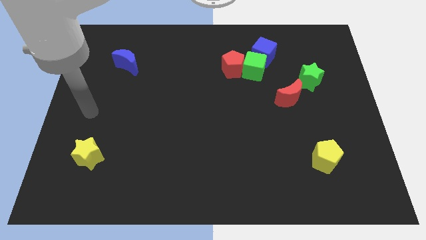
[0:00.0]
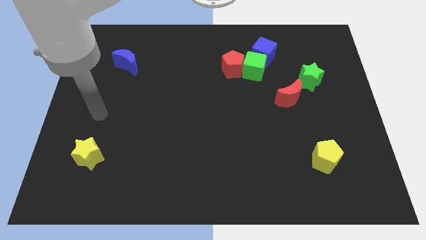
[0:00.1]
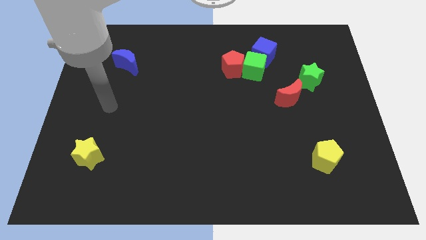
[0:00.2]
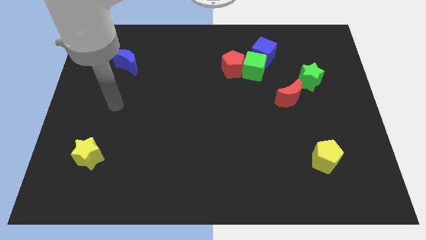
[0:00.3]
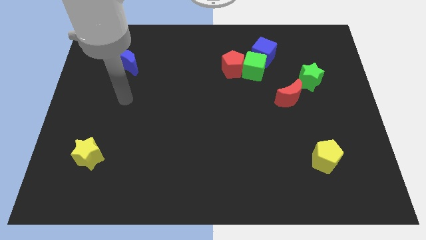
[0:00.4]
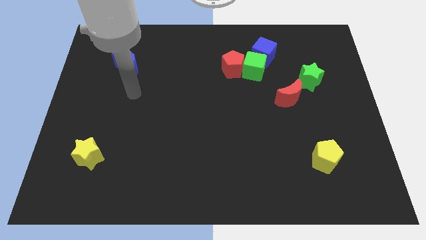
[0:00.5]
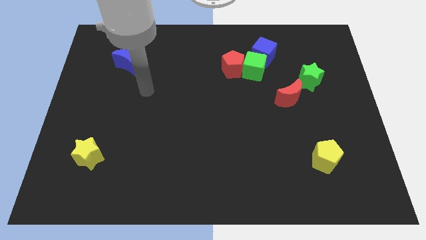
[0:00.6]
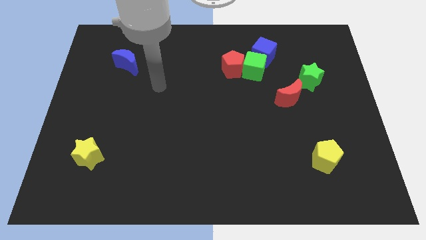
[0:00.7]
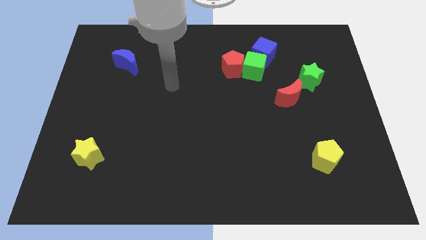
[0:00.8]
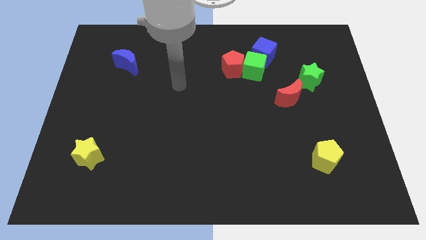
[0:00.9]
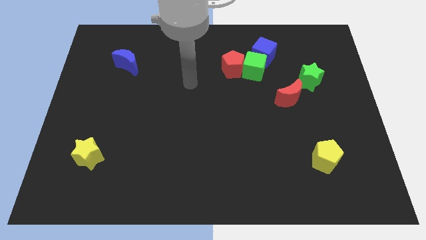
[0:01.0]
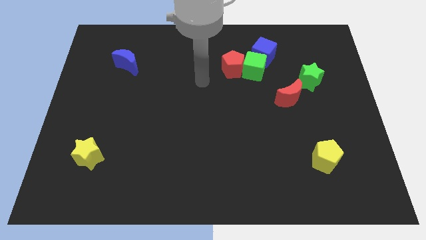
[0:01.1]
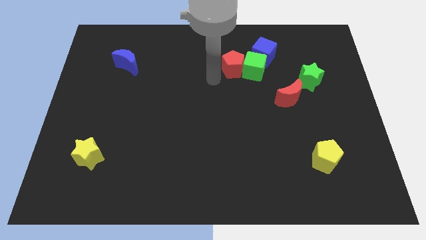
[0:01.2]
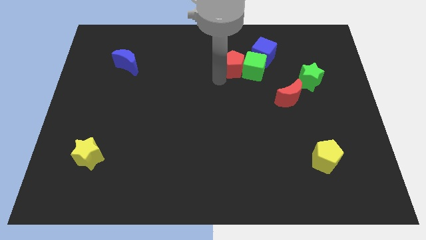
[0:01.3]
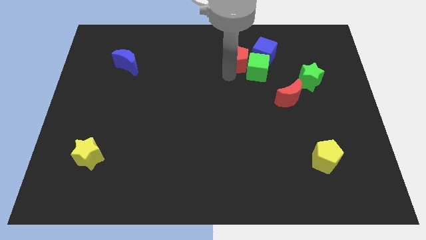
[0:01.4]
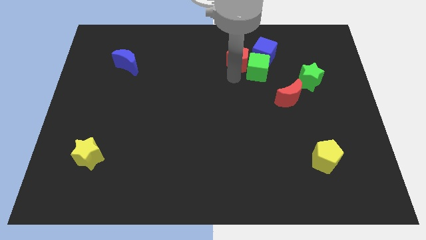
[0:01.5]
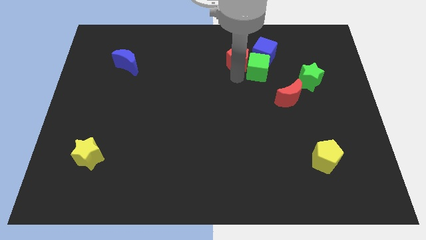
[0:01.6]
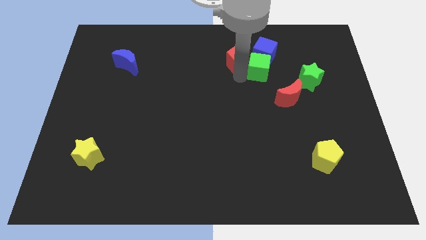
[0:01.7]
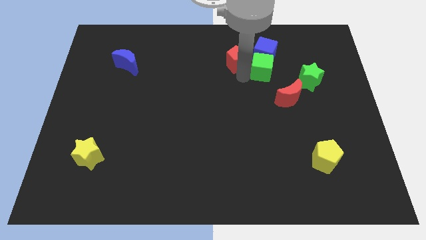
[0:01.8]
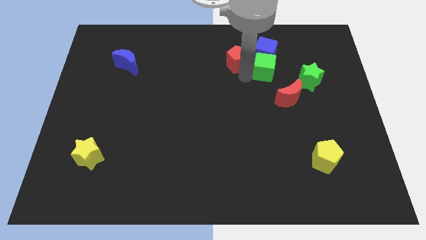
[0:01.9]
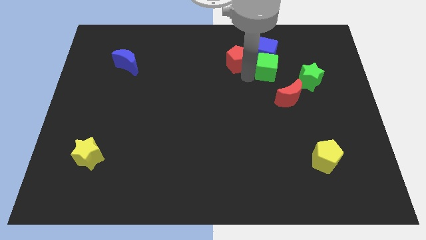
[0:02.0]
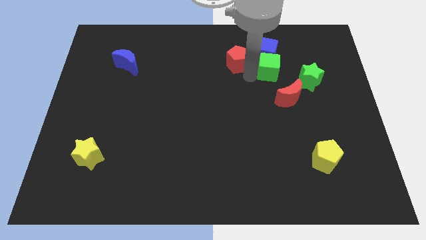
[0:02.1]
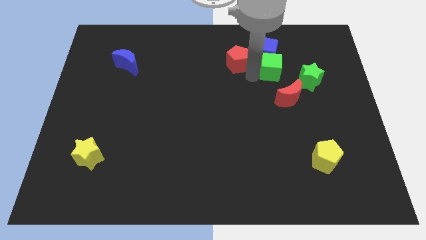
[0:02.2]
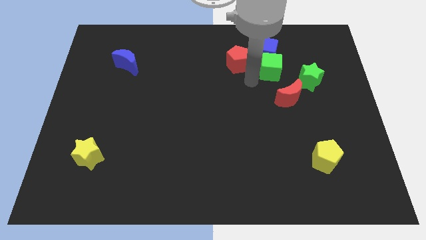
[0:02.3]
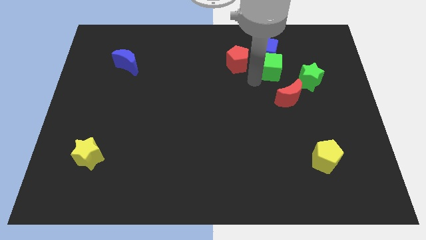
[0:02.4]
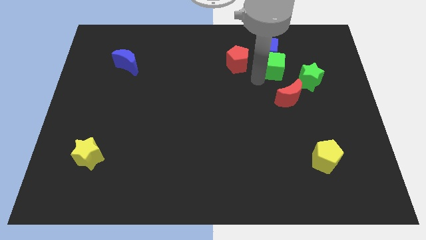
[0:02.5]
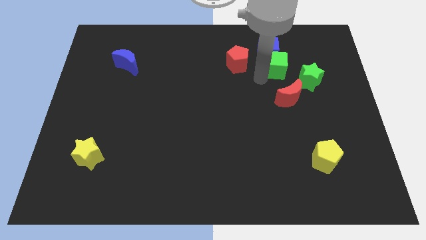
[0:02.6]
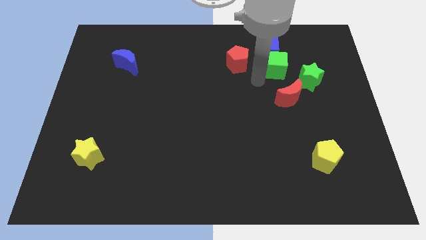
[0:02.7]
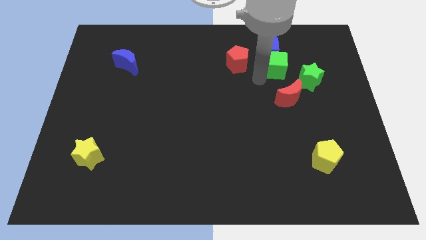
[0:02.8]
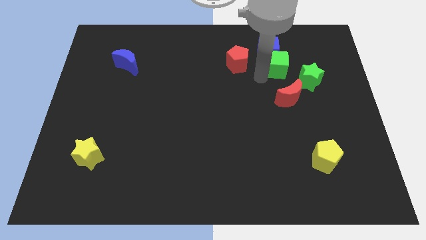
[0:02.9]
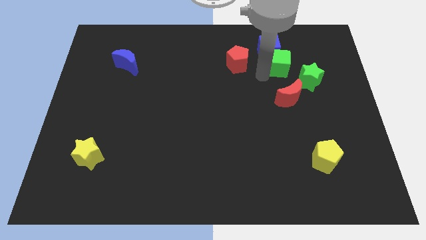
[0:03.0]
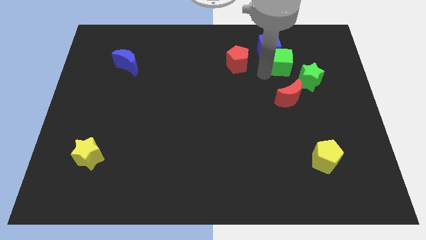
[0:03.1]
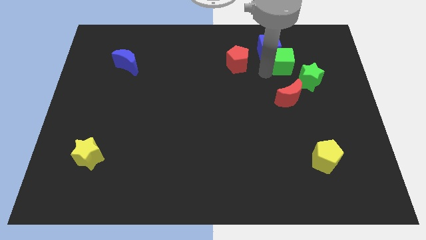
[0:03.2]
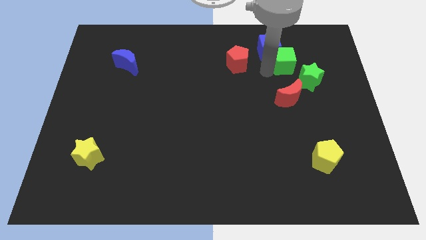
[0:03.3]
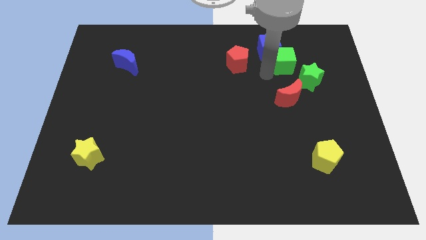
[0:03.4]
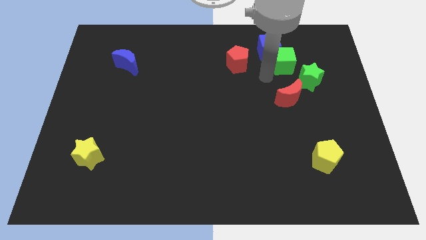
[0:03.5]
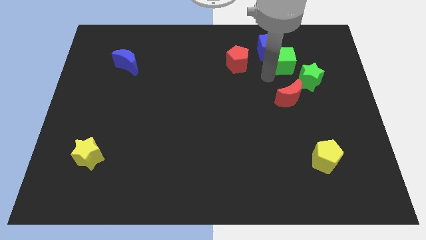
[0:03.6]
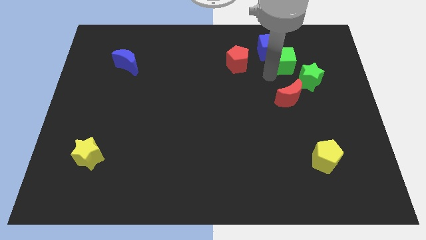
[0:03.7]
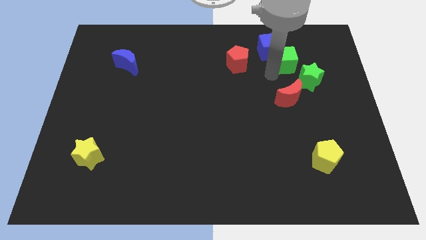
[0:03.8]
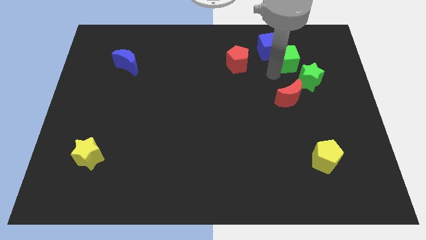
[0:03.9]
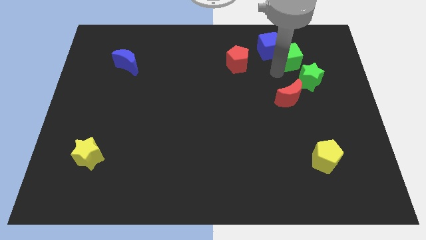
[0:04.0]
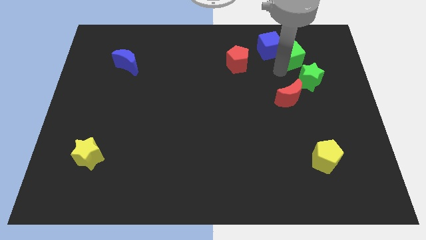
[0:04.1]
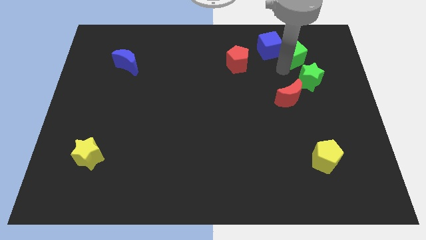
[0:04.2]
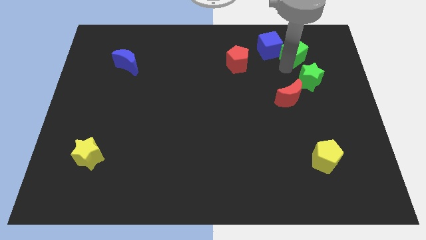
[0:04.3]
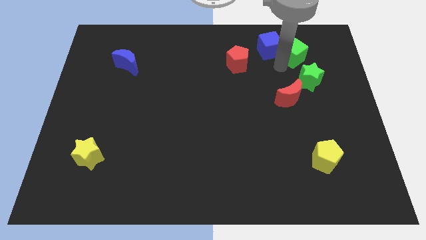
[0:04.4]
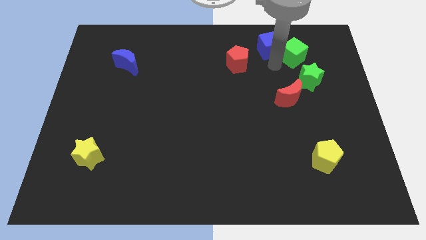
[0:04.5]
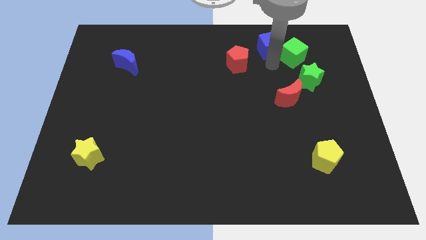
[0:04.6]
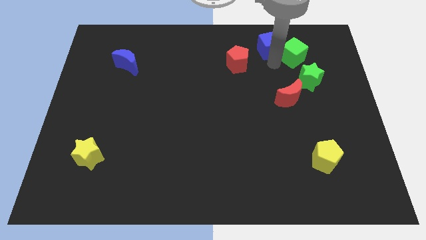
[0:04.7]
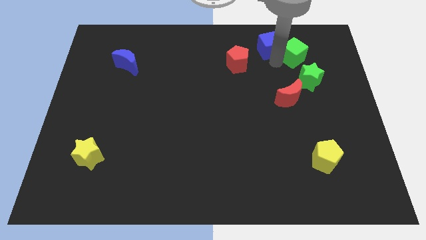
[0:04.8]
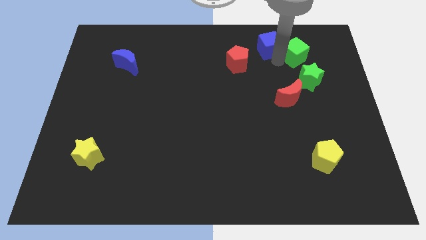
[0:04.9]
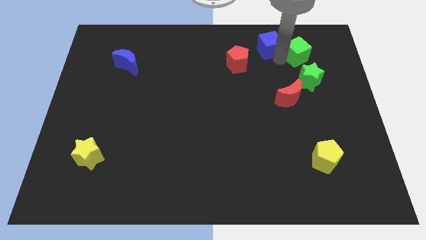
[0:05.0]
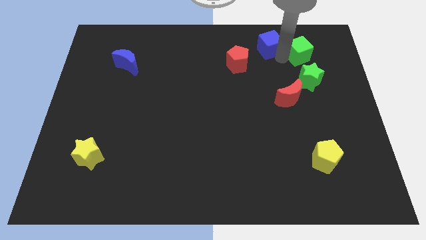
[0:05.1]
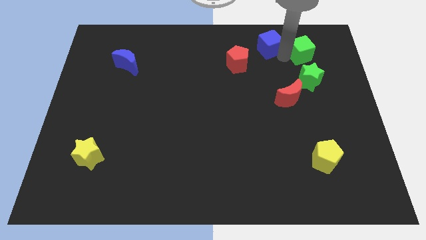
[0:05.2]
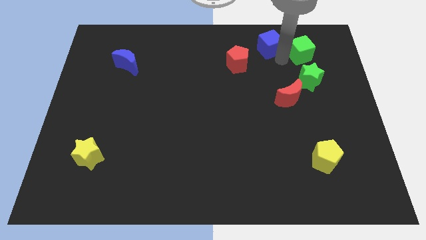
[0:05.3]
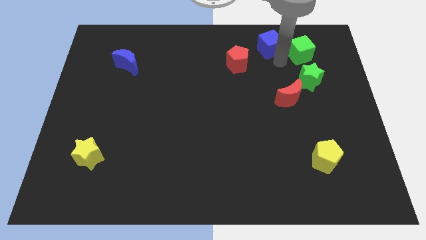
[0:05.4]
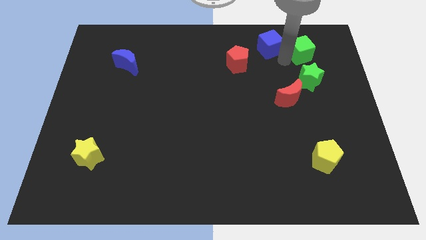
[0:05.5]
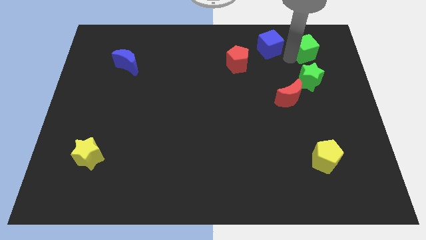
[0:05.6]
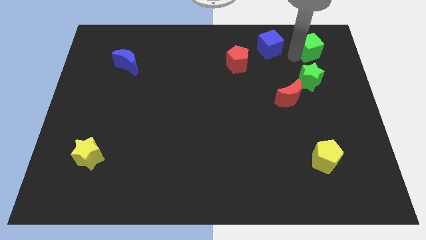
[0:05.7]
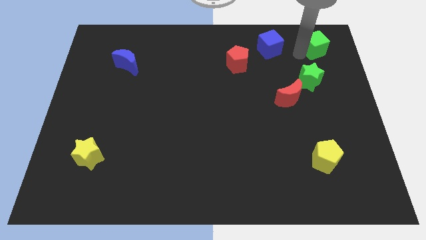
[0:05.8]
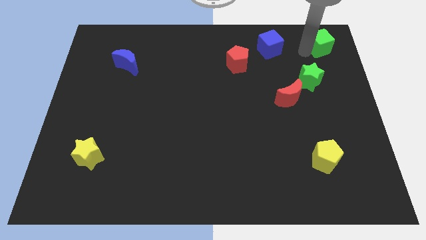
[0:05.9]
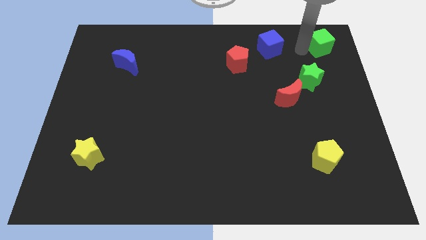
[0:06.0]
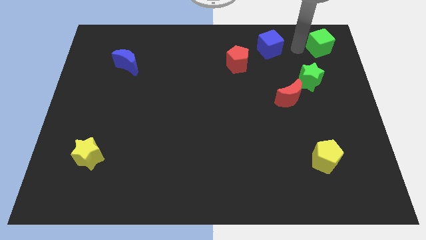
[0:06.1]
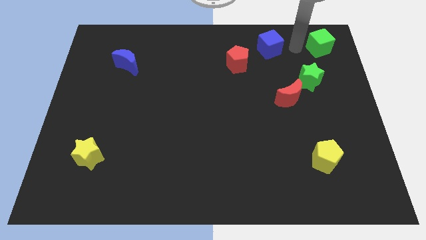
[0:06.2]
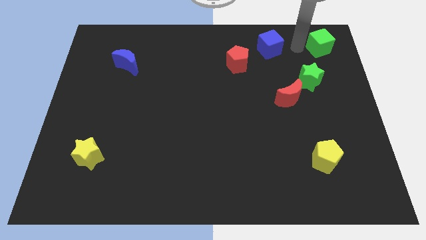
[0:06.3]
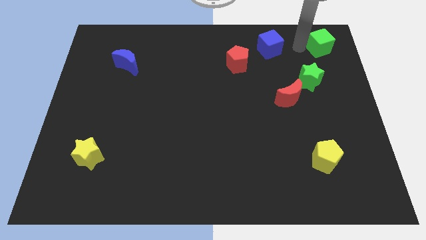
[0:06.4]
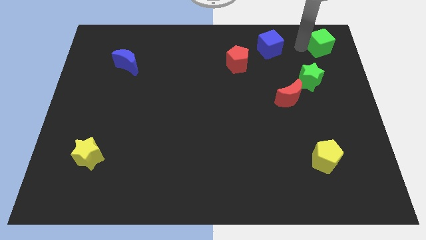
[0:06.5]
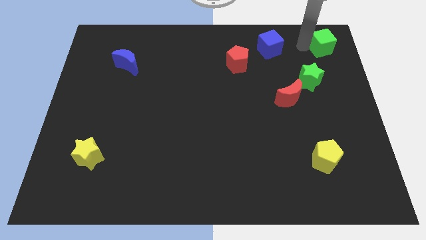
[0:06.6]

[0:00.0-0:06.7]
move the green cube to the top right of the board
